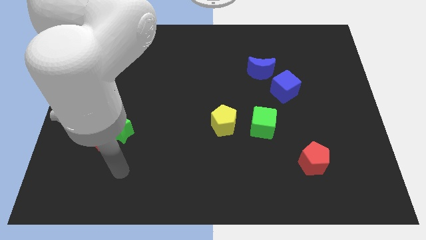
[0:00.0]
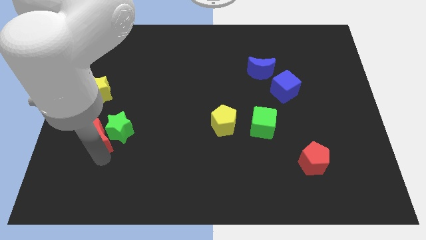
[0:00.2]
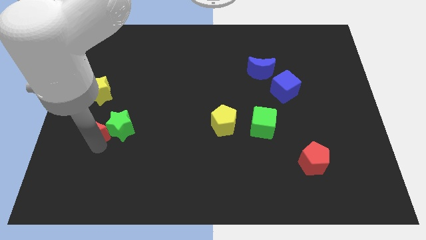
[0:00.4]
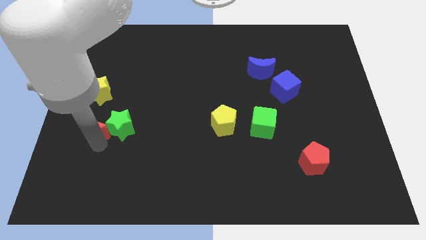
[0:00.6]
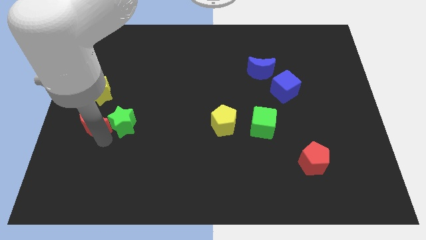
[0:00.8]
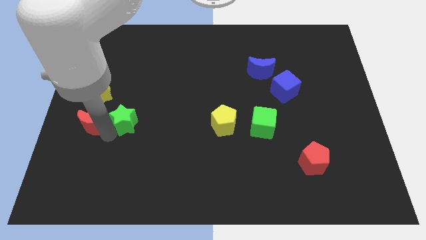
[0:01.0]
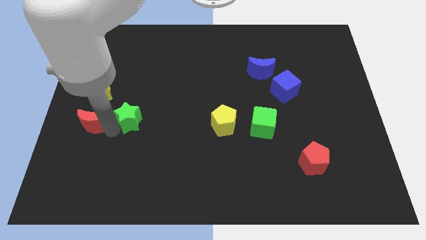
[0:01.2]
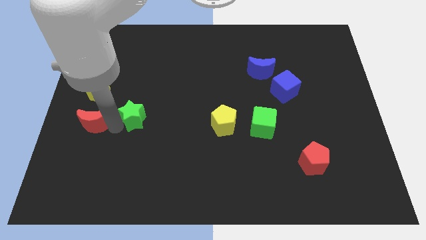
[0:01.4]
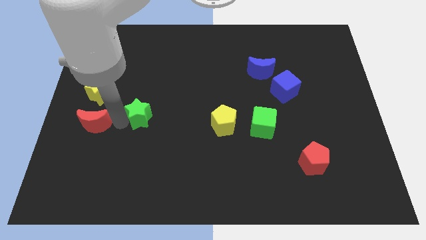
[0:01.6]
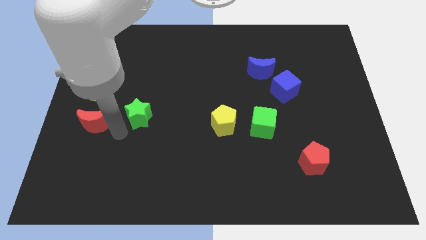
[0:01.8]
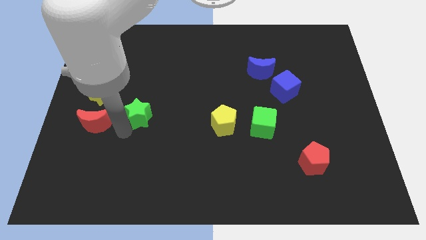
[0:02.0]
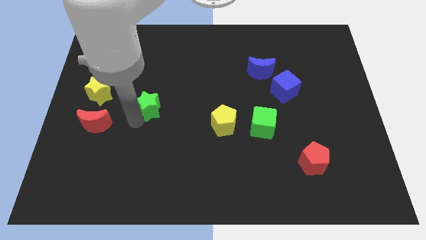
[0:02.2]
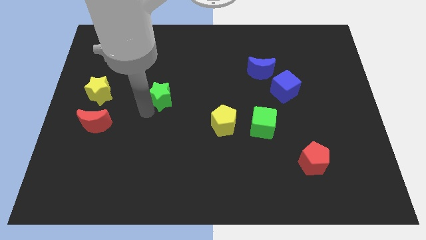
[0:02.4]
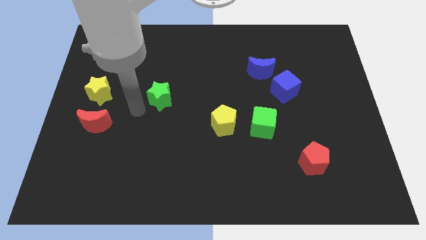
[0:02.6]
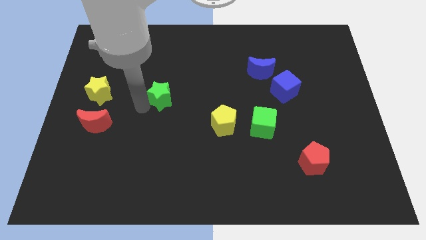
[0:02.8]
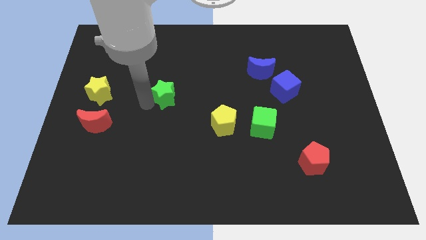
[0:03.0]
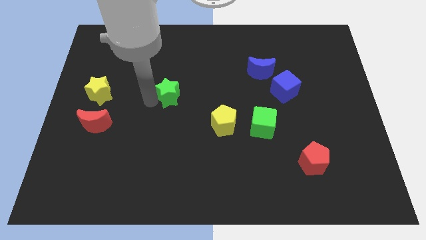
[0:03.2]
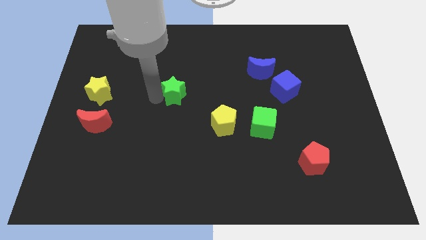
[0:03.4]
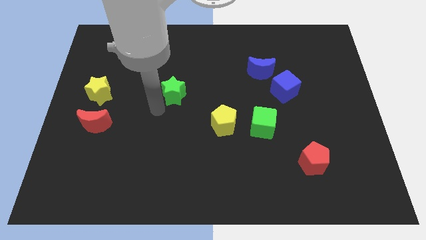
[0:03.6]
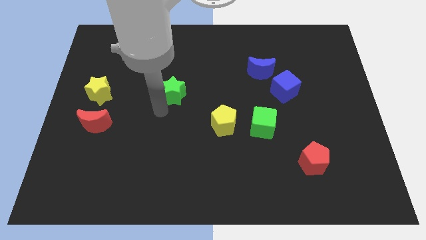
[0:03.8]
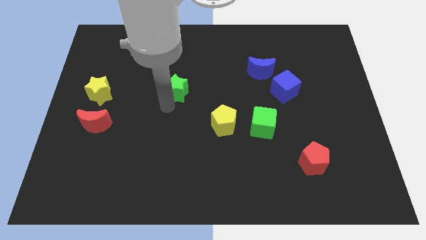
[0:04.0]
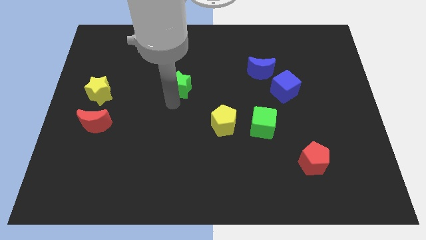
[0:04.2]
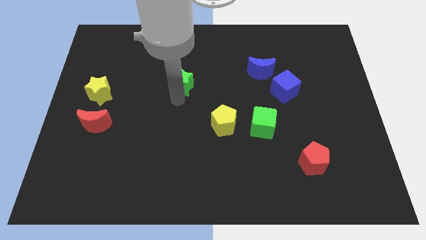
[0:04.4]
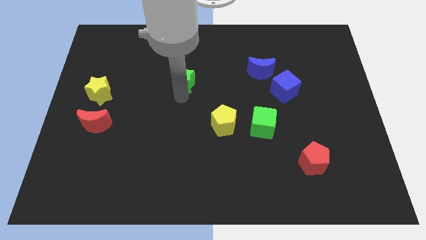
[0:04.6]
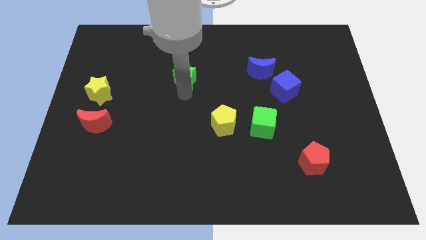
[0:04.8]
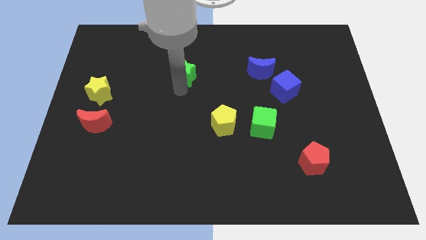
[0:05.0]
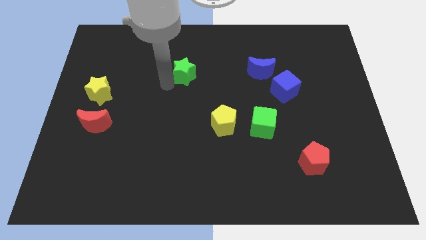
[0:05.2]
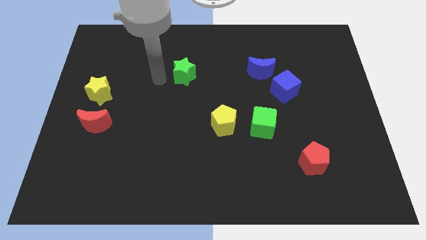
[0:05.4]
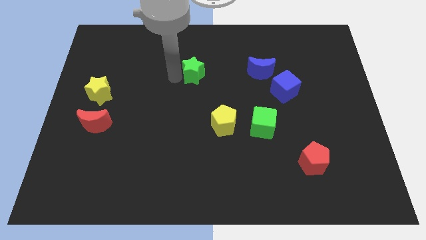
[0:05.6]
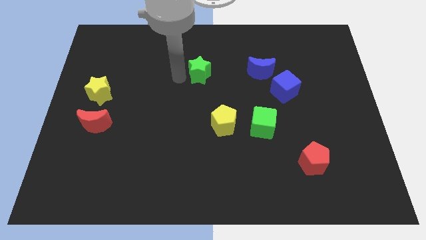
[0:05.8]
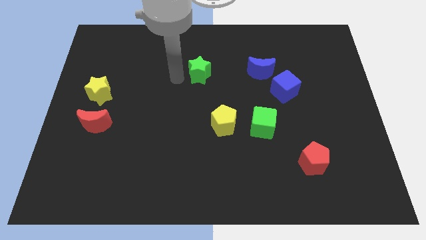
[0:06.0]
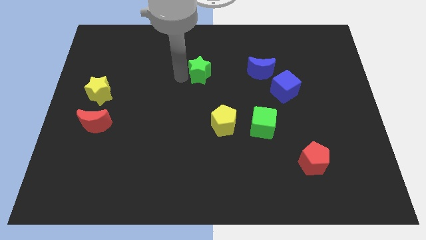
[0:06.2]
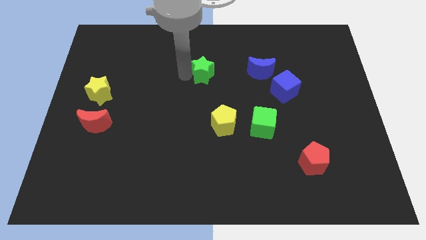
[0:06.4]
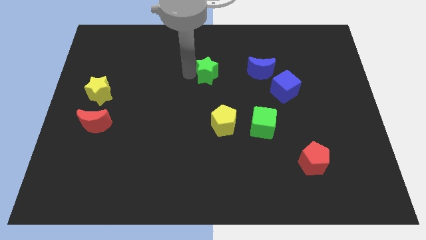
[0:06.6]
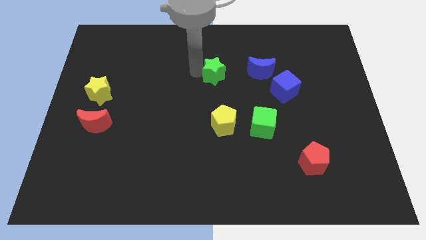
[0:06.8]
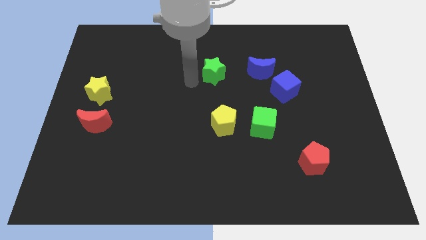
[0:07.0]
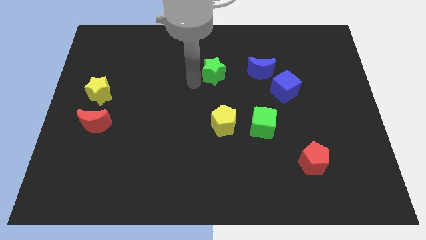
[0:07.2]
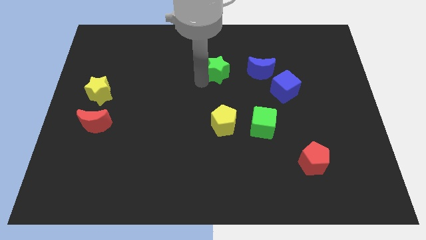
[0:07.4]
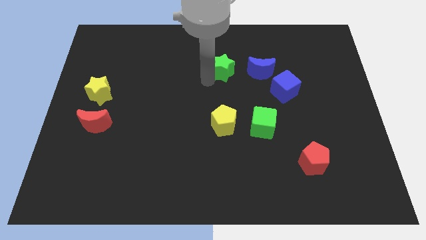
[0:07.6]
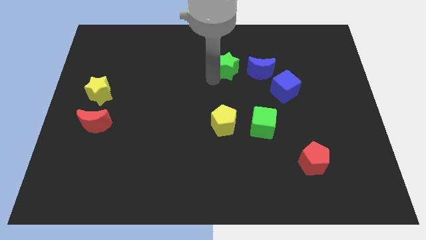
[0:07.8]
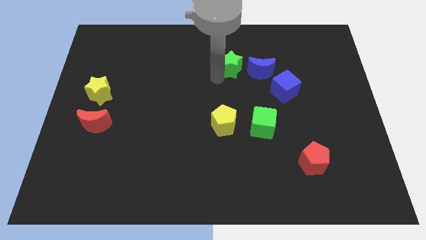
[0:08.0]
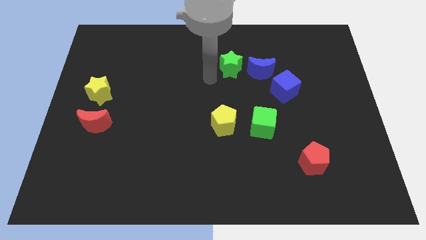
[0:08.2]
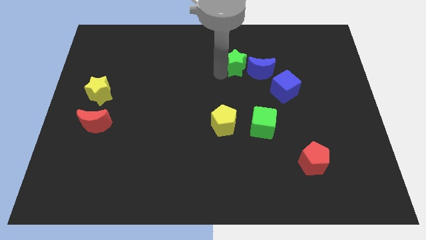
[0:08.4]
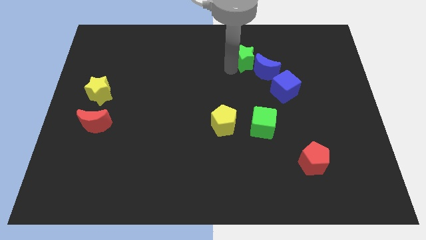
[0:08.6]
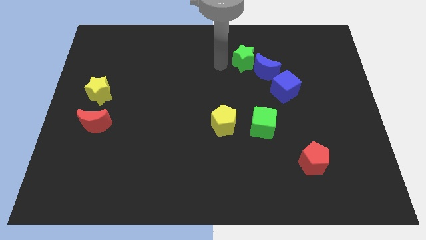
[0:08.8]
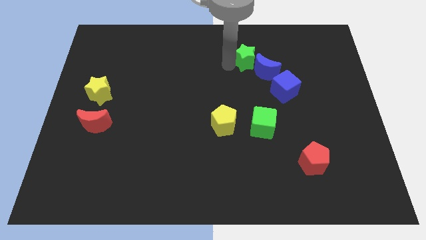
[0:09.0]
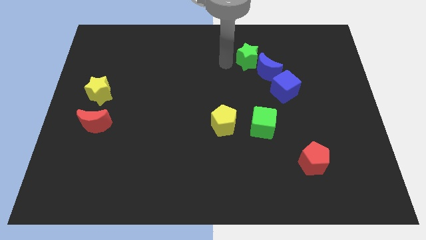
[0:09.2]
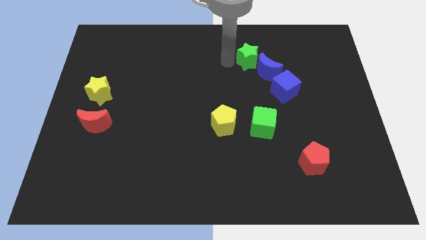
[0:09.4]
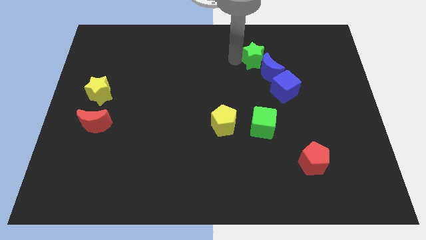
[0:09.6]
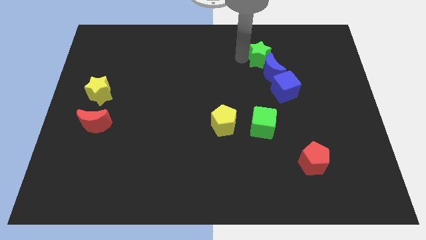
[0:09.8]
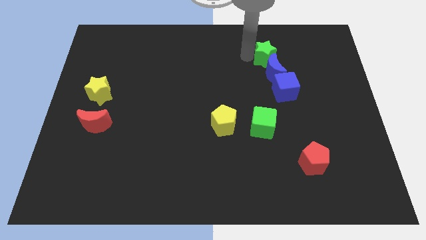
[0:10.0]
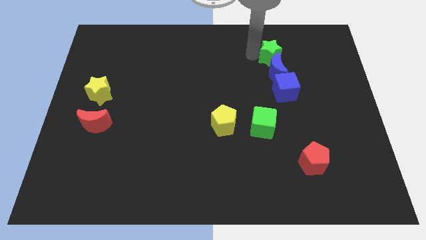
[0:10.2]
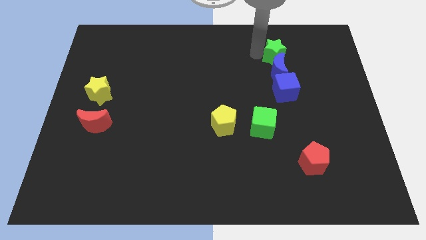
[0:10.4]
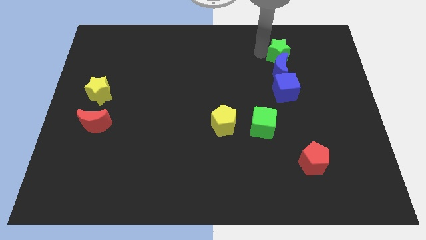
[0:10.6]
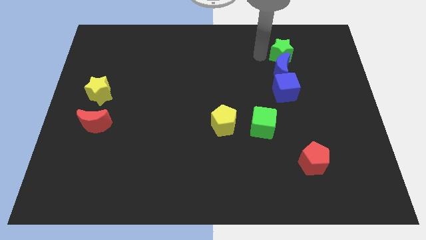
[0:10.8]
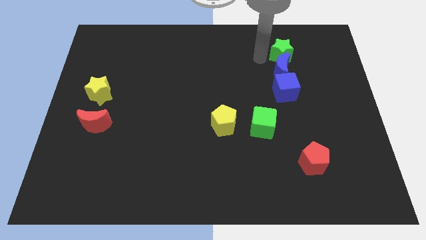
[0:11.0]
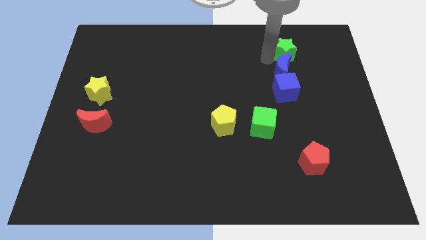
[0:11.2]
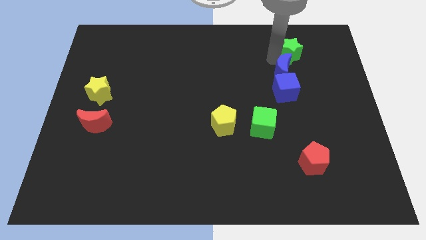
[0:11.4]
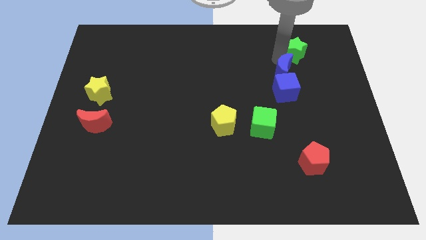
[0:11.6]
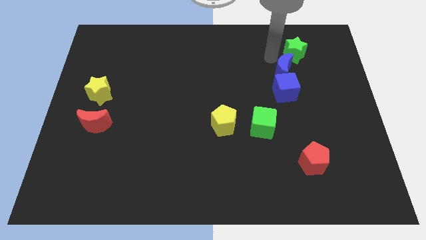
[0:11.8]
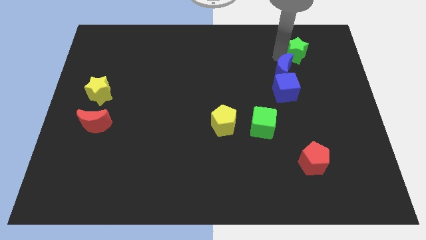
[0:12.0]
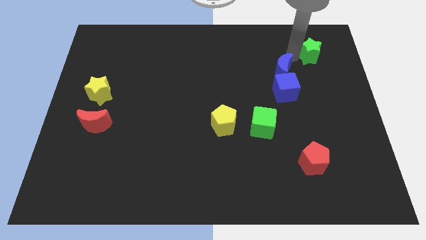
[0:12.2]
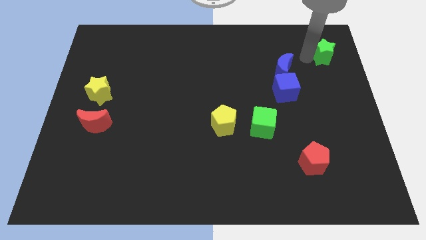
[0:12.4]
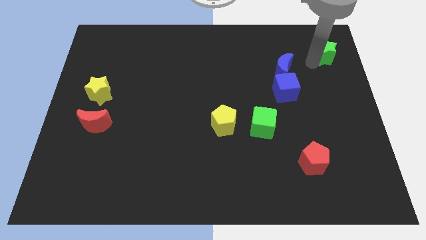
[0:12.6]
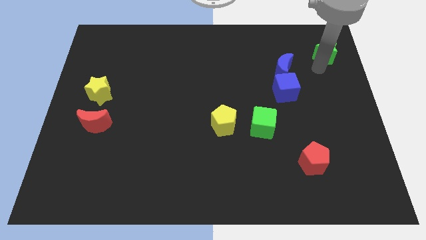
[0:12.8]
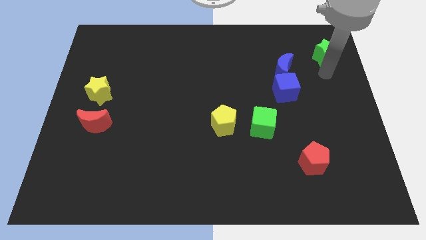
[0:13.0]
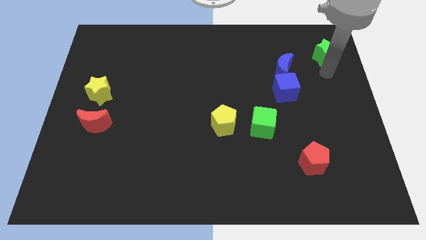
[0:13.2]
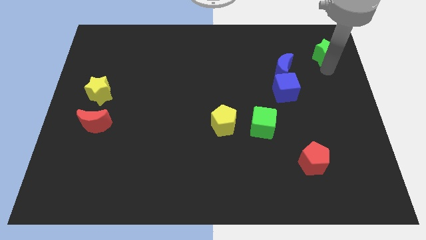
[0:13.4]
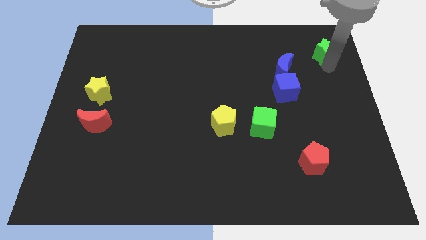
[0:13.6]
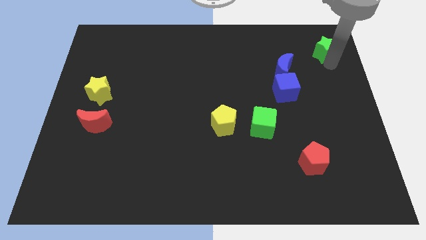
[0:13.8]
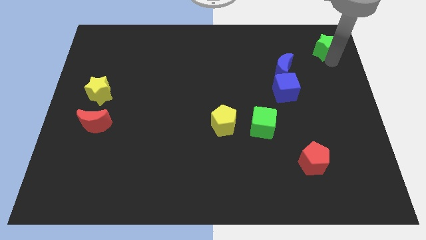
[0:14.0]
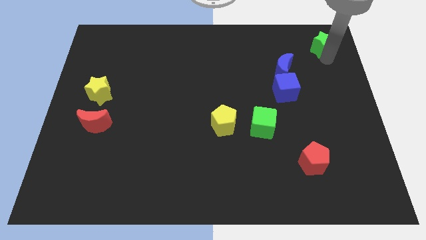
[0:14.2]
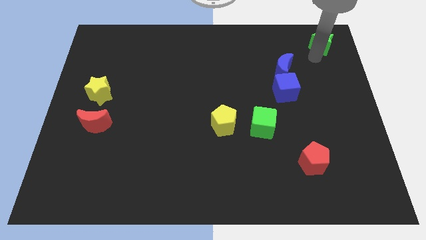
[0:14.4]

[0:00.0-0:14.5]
move the green star to the upper right corner

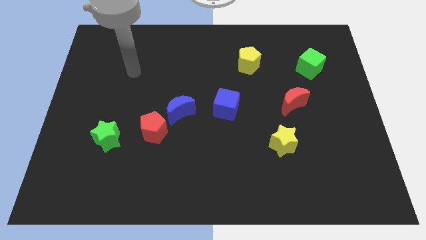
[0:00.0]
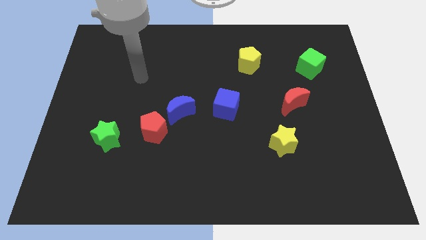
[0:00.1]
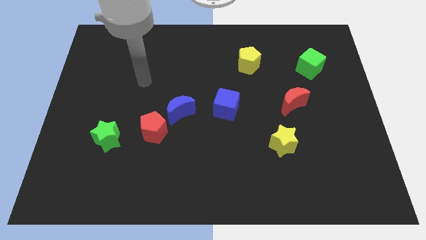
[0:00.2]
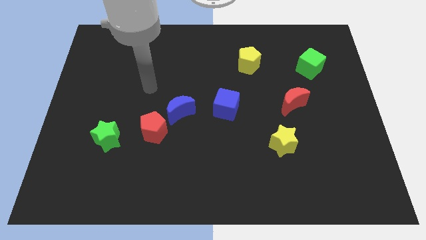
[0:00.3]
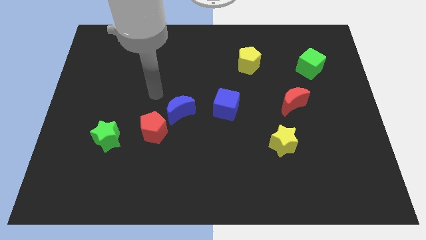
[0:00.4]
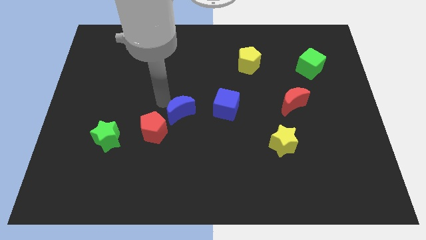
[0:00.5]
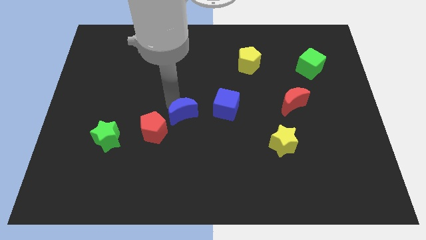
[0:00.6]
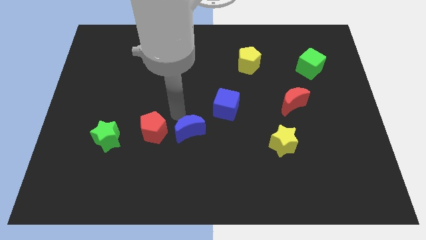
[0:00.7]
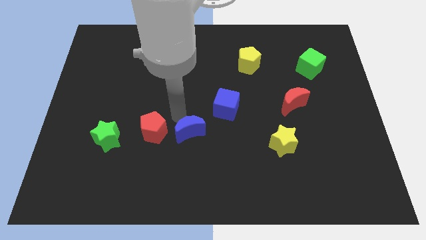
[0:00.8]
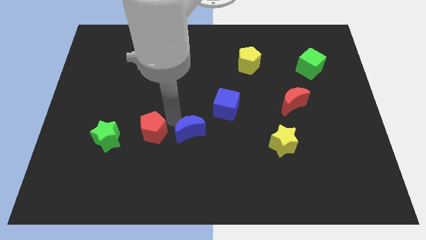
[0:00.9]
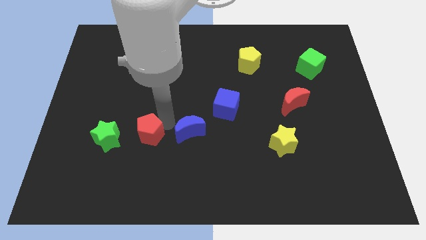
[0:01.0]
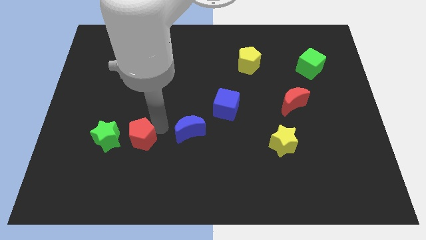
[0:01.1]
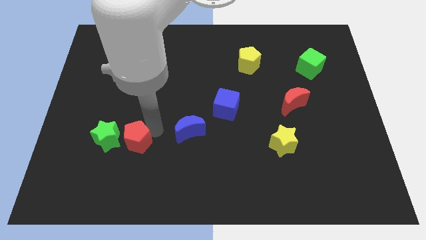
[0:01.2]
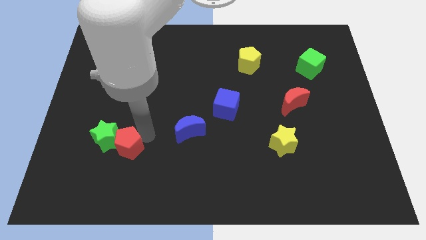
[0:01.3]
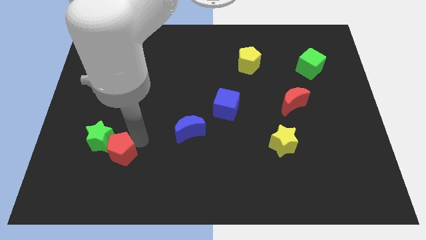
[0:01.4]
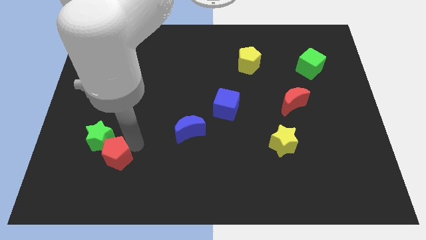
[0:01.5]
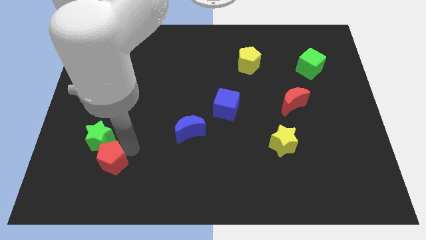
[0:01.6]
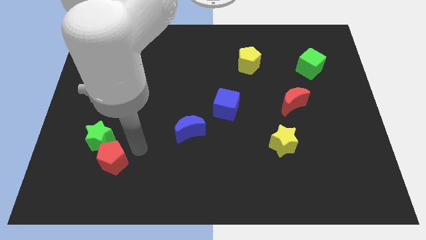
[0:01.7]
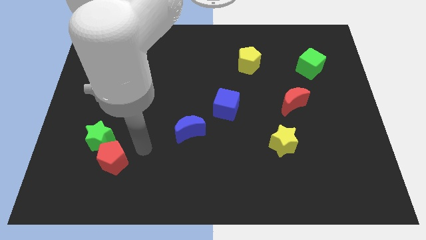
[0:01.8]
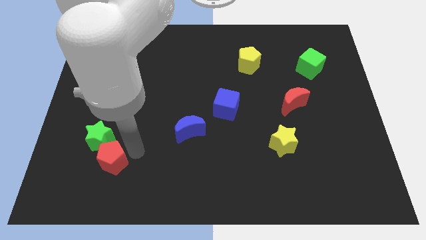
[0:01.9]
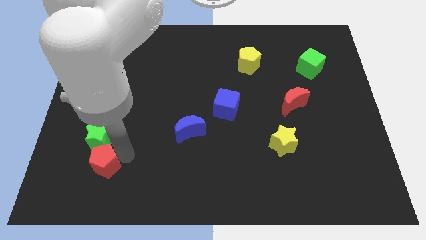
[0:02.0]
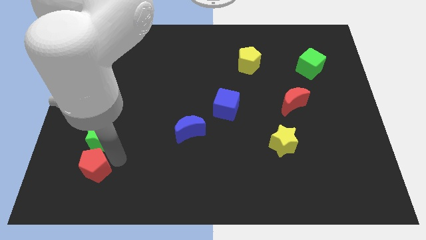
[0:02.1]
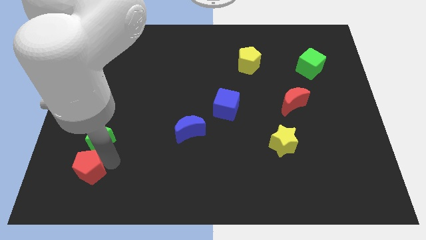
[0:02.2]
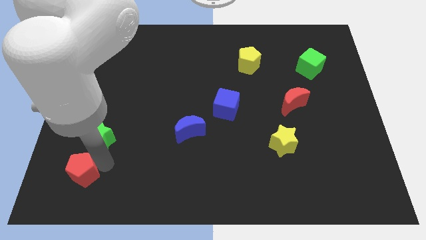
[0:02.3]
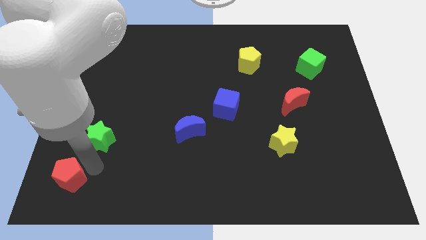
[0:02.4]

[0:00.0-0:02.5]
slide the red pentagon to the bottom left
